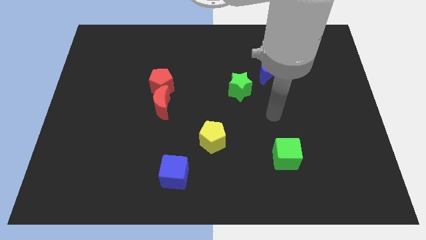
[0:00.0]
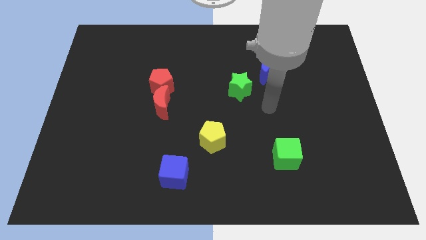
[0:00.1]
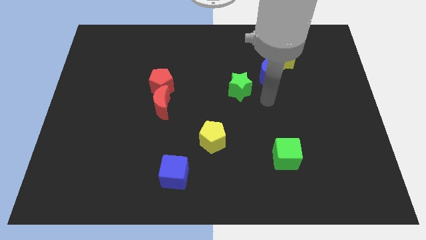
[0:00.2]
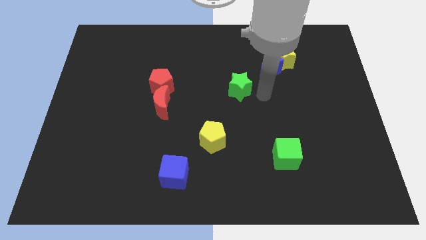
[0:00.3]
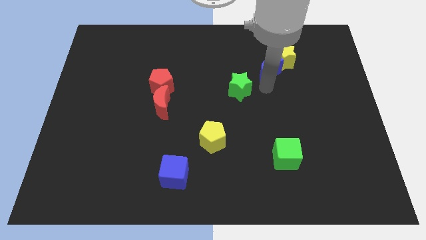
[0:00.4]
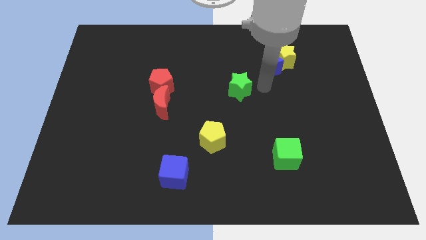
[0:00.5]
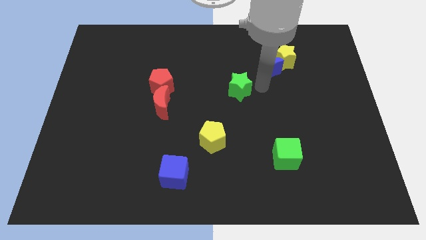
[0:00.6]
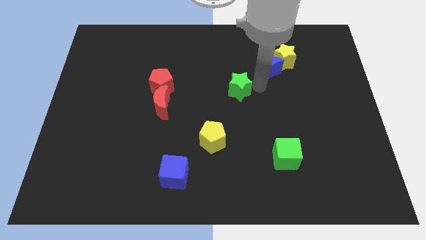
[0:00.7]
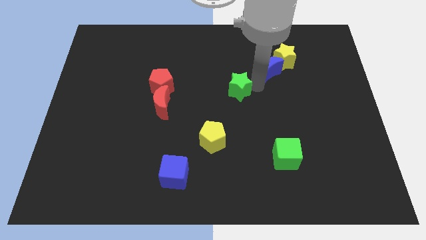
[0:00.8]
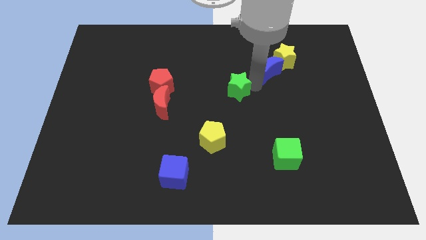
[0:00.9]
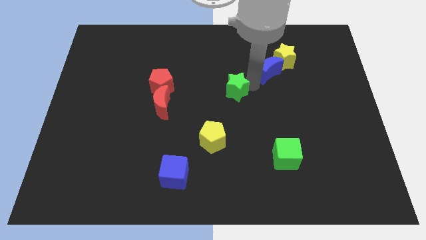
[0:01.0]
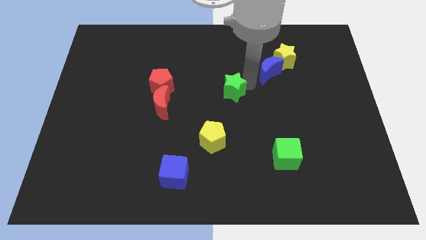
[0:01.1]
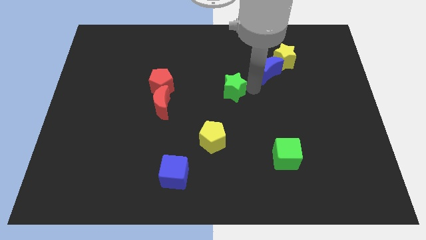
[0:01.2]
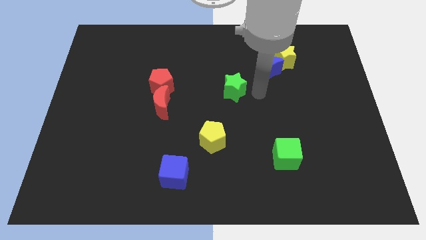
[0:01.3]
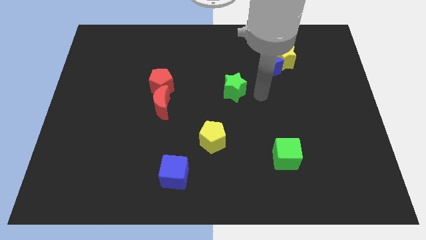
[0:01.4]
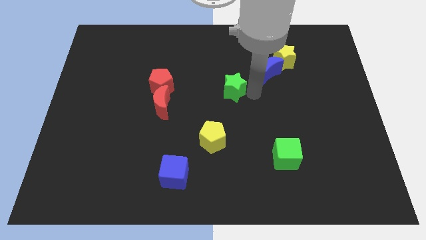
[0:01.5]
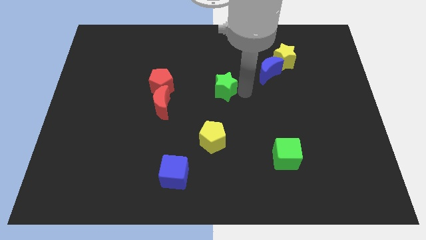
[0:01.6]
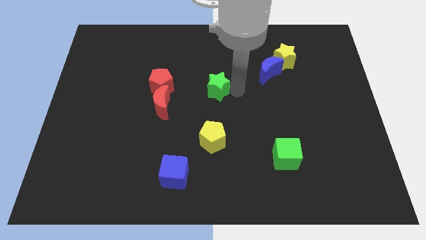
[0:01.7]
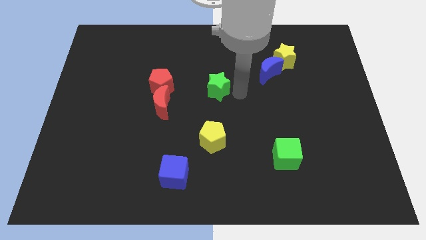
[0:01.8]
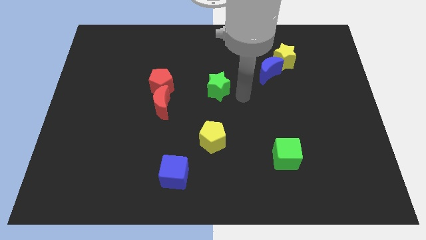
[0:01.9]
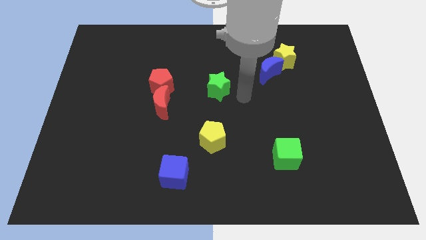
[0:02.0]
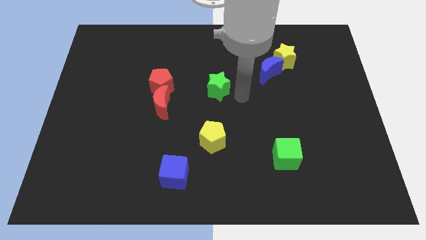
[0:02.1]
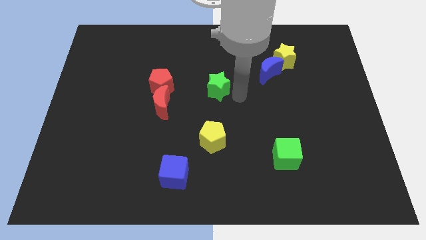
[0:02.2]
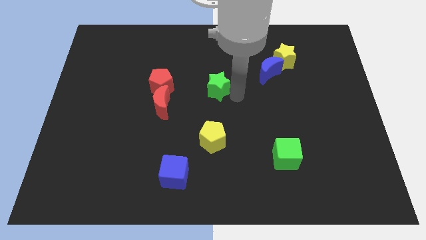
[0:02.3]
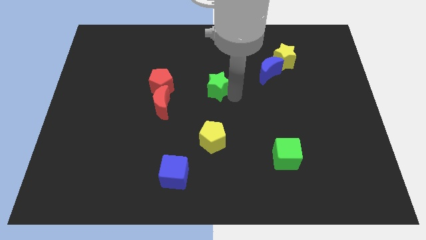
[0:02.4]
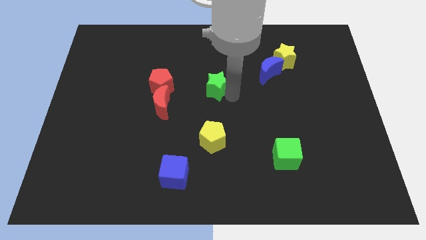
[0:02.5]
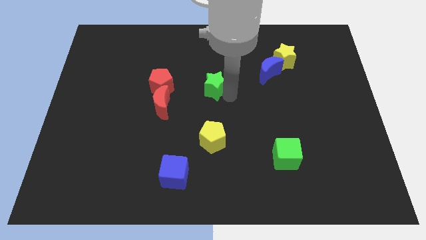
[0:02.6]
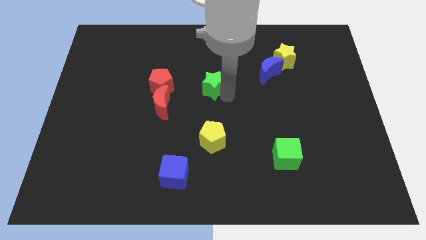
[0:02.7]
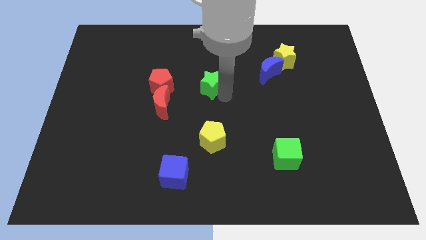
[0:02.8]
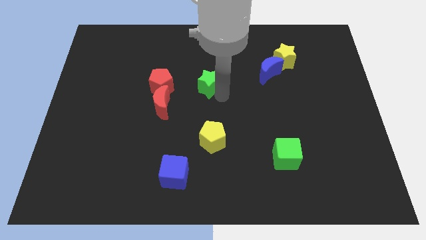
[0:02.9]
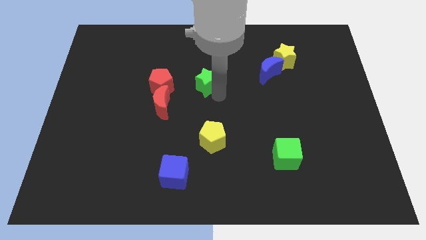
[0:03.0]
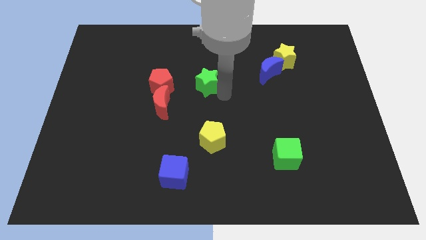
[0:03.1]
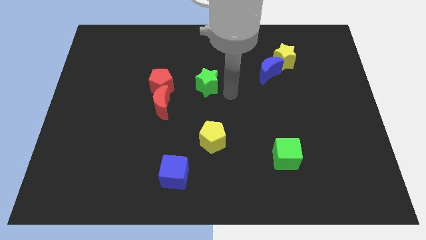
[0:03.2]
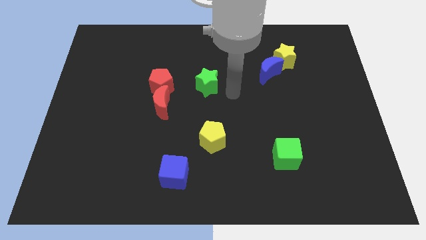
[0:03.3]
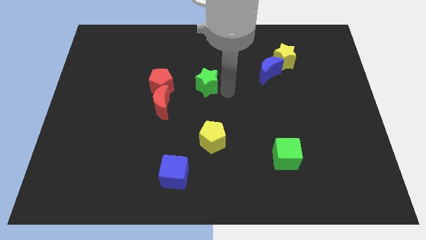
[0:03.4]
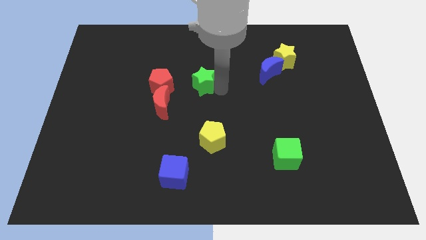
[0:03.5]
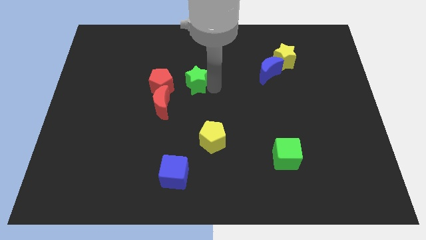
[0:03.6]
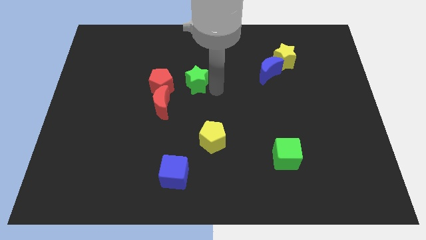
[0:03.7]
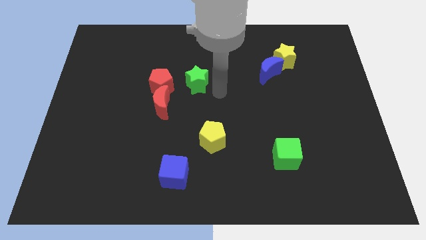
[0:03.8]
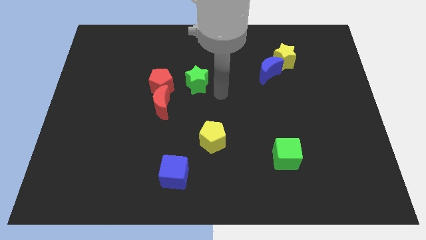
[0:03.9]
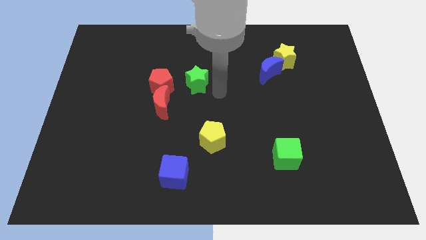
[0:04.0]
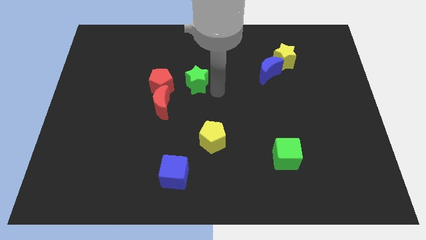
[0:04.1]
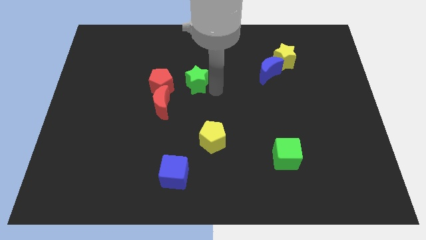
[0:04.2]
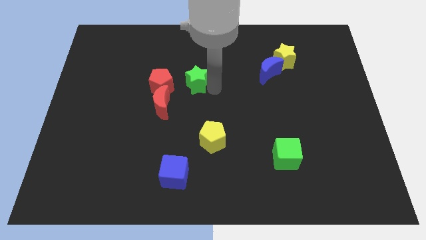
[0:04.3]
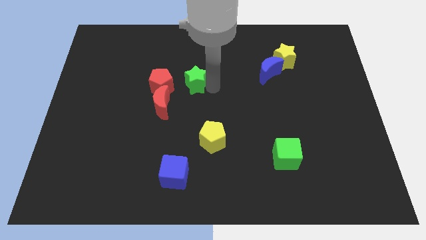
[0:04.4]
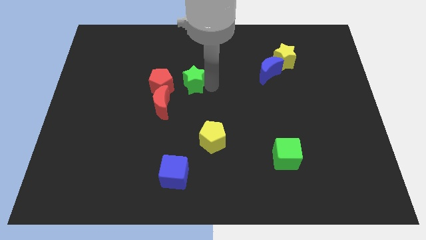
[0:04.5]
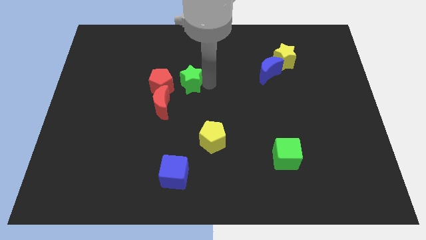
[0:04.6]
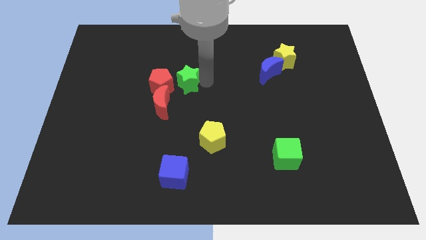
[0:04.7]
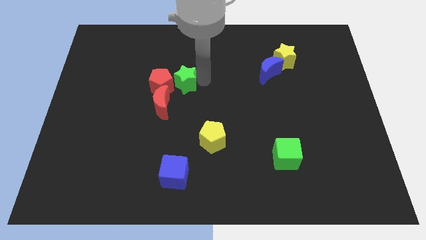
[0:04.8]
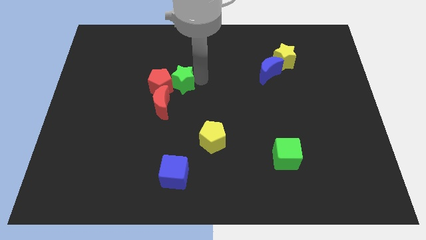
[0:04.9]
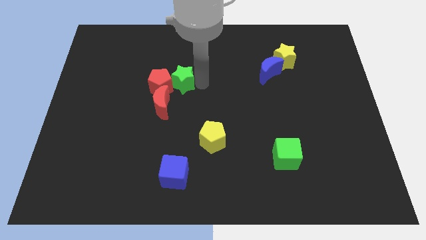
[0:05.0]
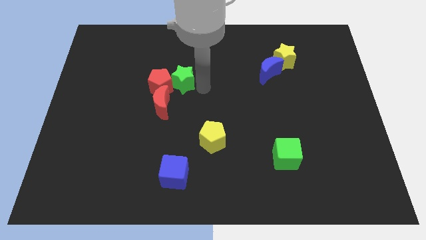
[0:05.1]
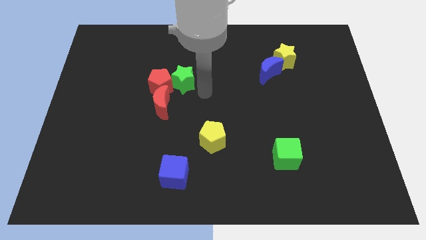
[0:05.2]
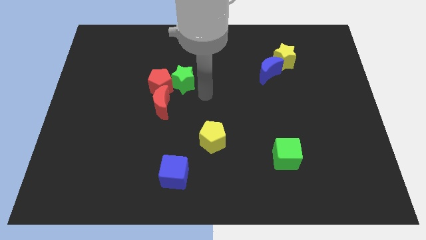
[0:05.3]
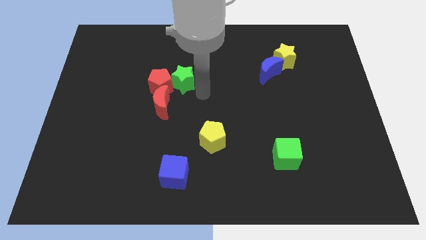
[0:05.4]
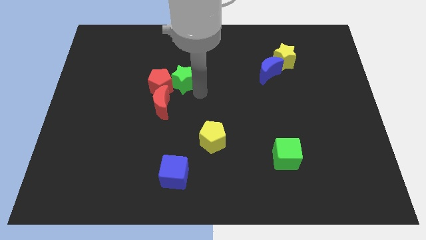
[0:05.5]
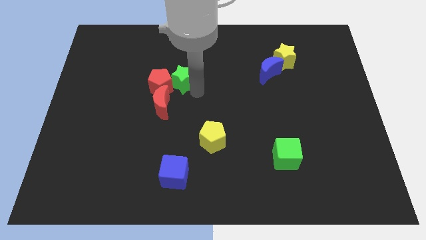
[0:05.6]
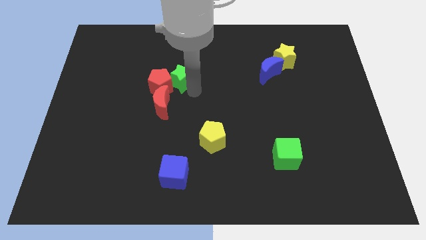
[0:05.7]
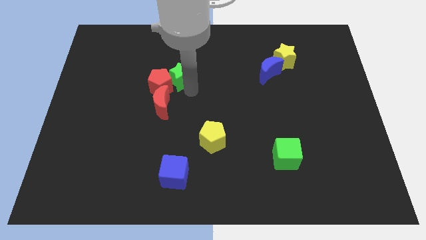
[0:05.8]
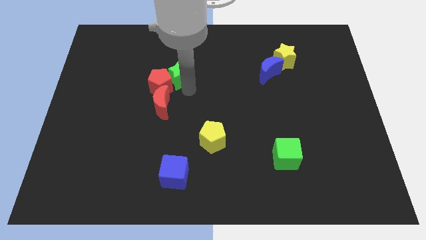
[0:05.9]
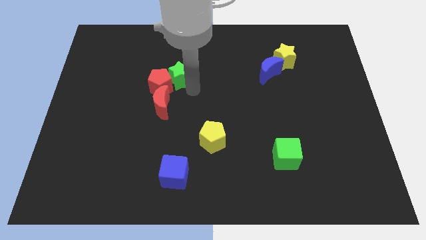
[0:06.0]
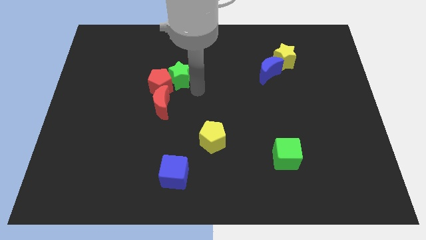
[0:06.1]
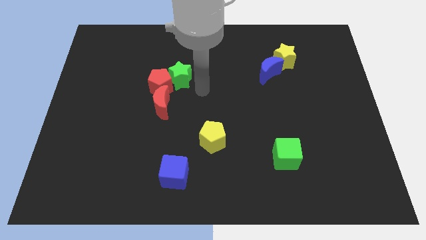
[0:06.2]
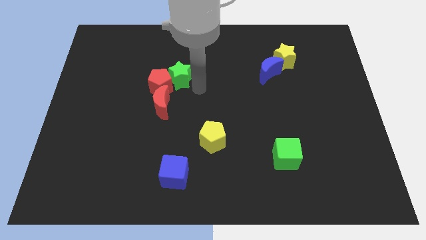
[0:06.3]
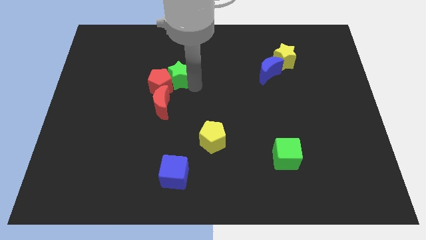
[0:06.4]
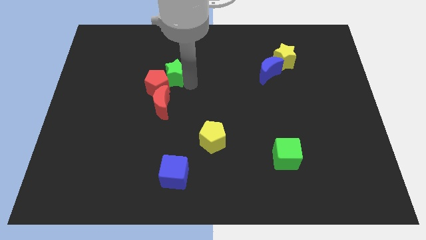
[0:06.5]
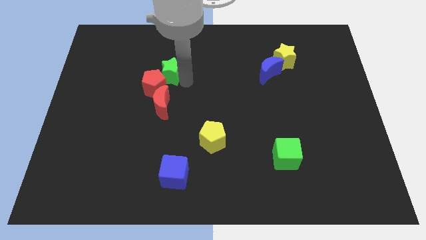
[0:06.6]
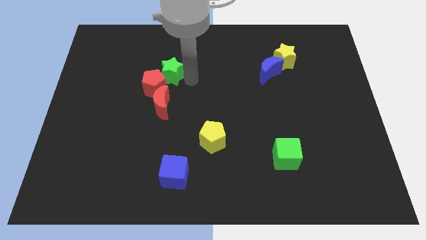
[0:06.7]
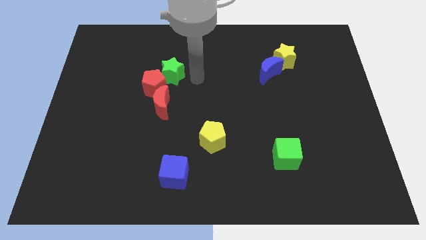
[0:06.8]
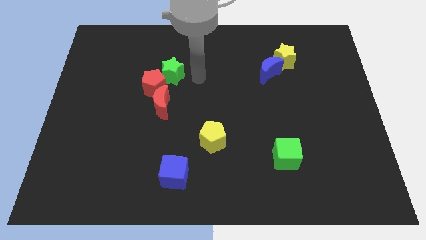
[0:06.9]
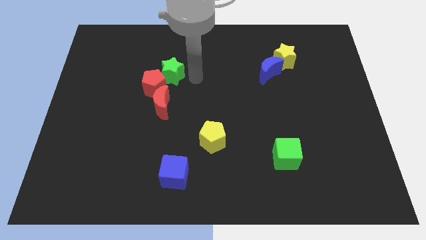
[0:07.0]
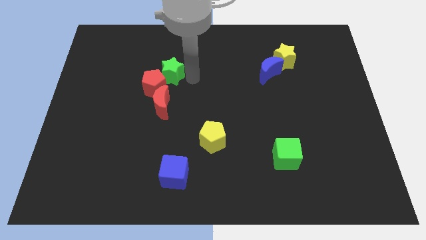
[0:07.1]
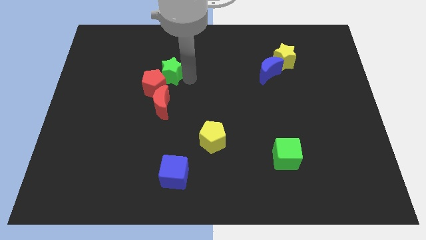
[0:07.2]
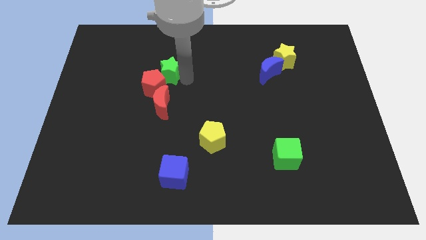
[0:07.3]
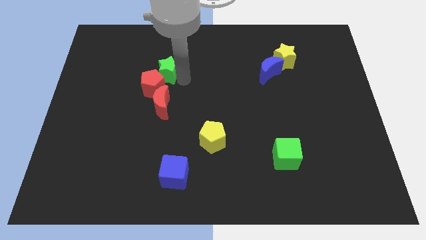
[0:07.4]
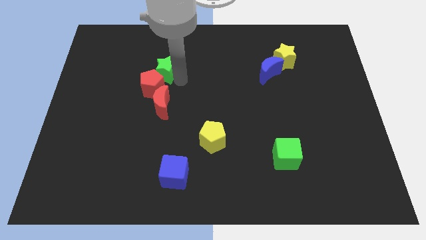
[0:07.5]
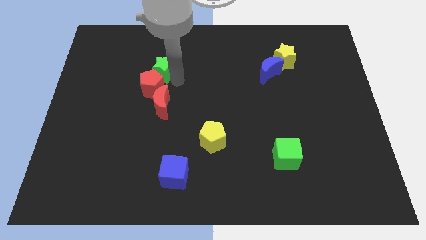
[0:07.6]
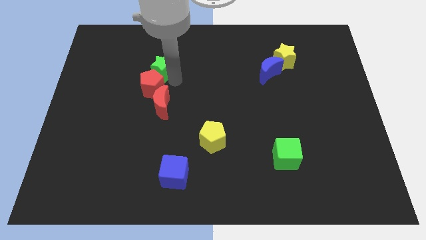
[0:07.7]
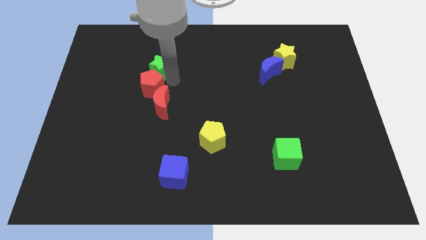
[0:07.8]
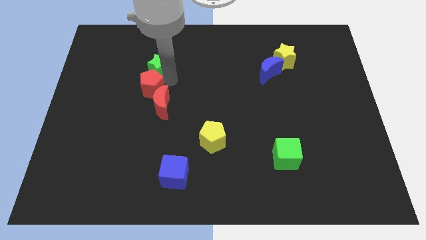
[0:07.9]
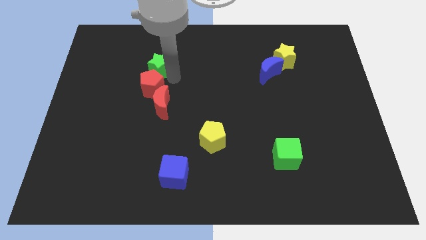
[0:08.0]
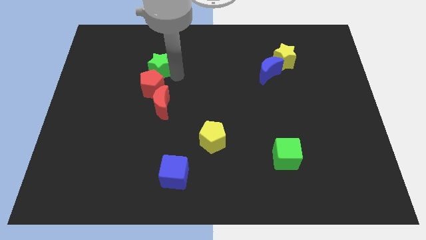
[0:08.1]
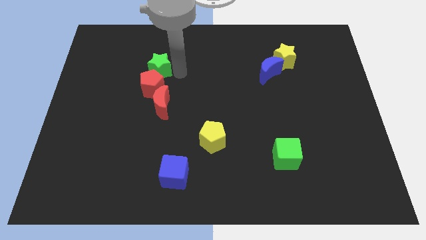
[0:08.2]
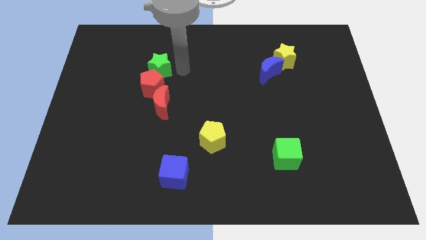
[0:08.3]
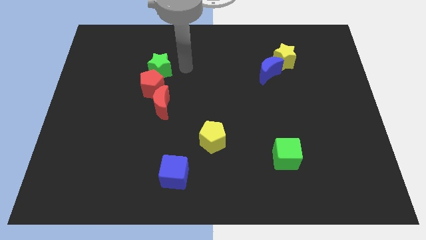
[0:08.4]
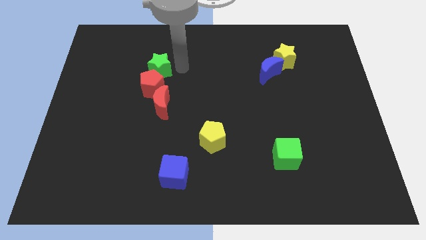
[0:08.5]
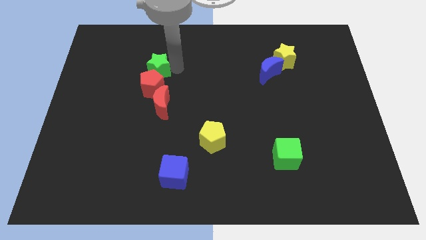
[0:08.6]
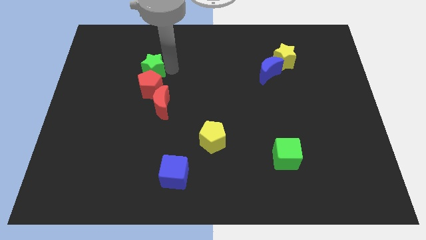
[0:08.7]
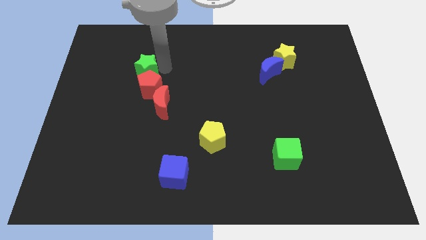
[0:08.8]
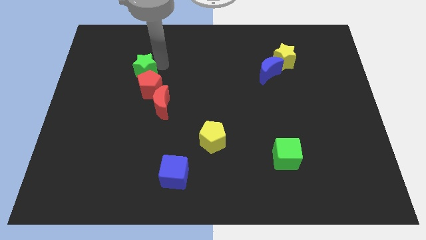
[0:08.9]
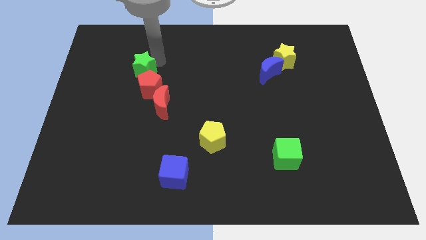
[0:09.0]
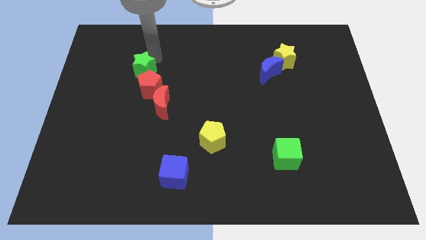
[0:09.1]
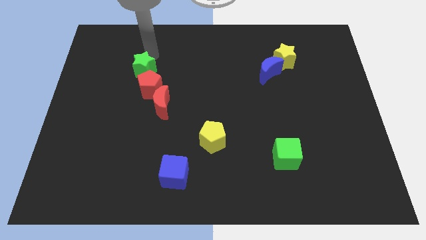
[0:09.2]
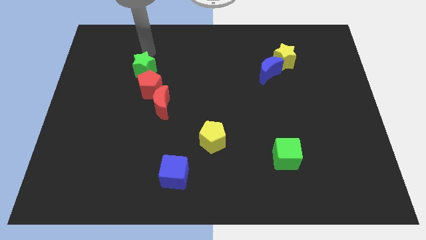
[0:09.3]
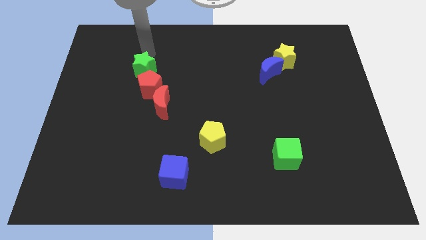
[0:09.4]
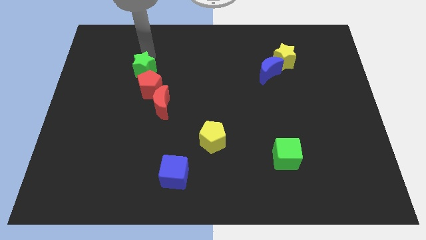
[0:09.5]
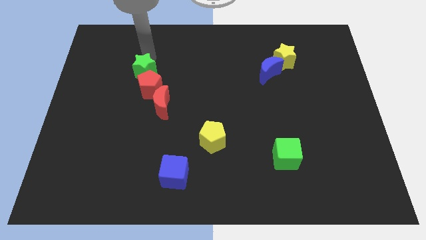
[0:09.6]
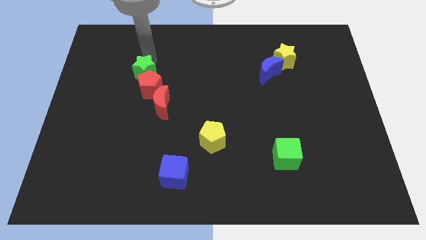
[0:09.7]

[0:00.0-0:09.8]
put the green star to the top left side of the red moon
